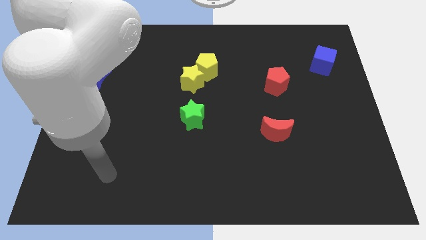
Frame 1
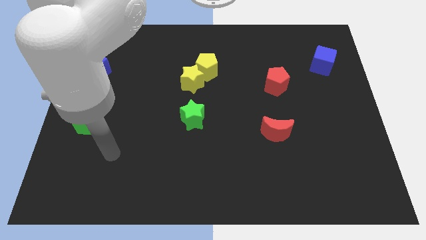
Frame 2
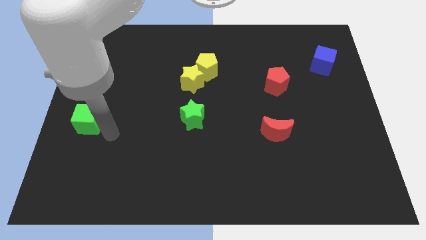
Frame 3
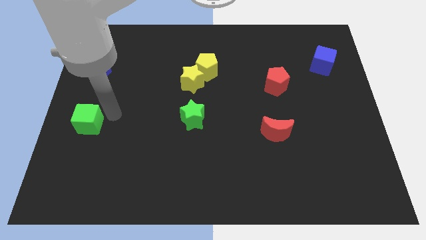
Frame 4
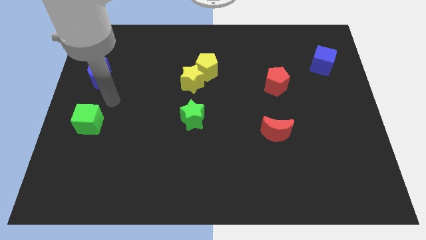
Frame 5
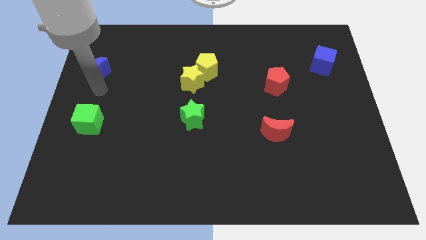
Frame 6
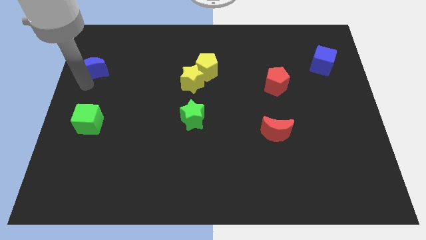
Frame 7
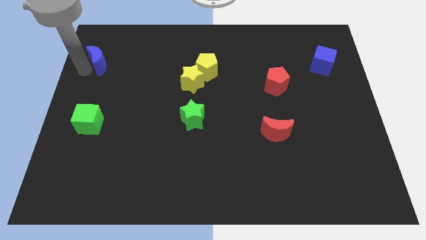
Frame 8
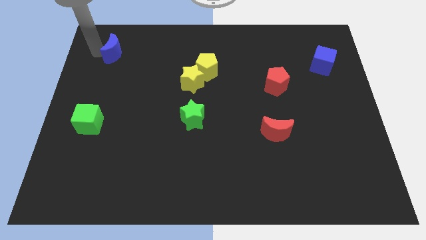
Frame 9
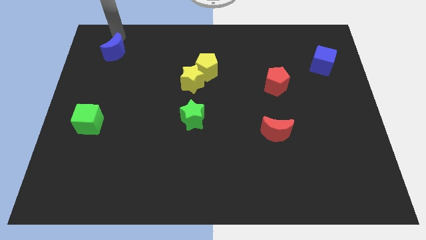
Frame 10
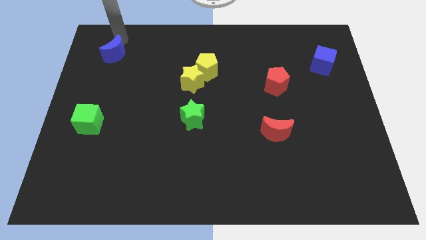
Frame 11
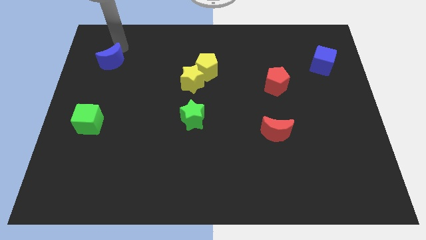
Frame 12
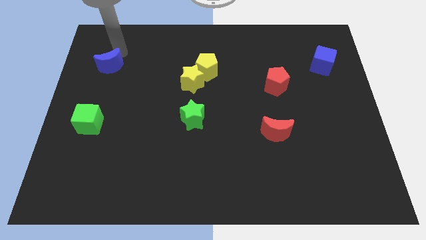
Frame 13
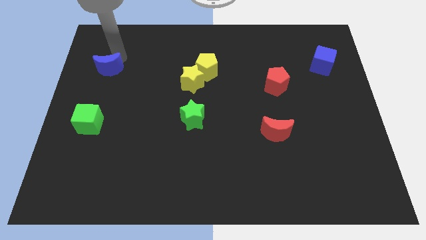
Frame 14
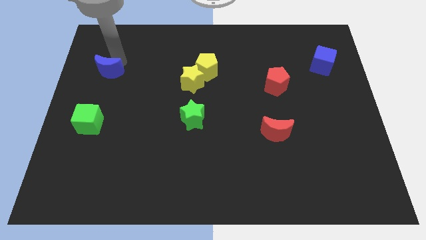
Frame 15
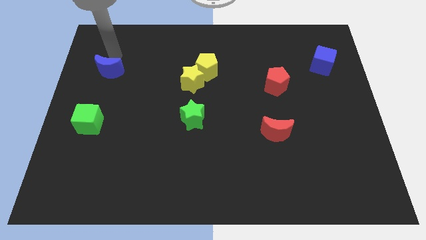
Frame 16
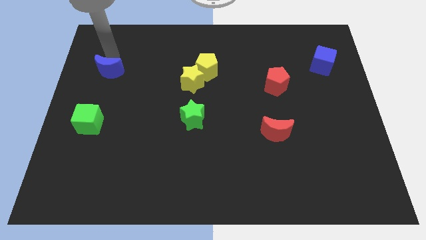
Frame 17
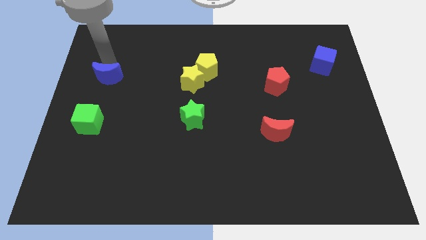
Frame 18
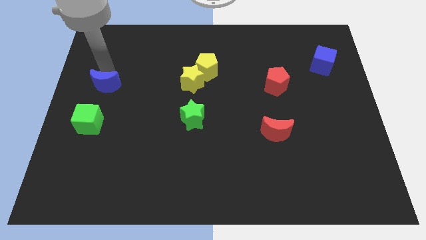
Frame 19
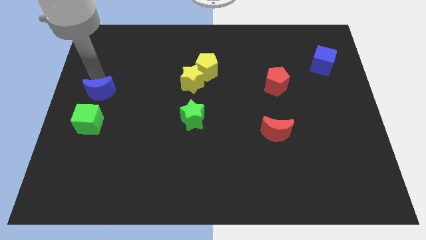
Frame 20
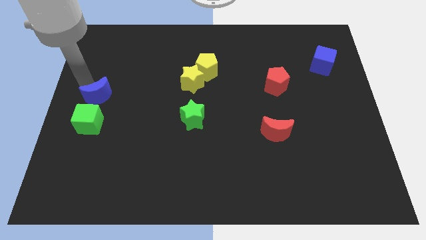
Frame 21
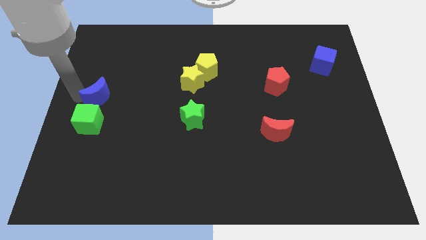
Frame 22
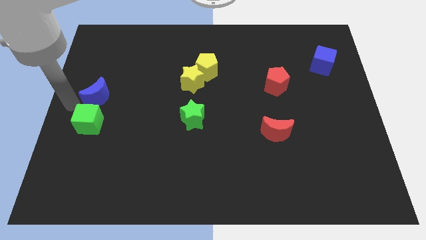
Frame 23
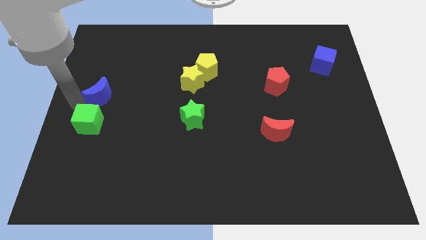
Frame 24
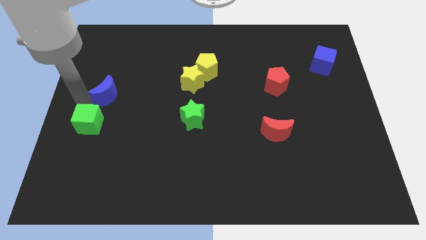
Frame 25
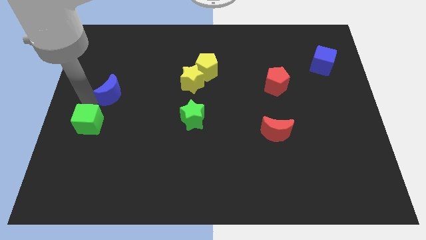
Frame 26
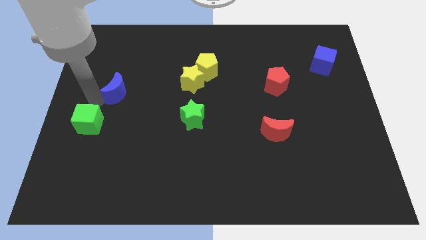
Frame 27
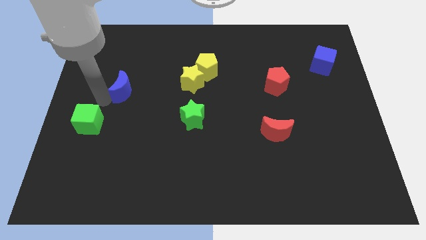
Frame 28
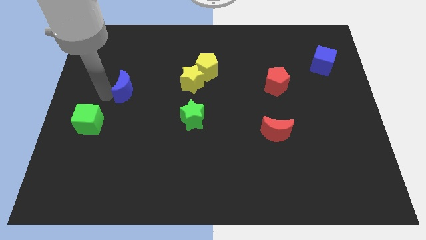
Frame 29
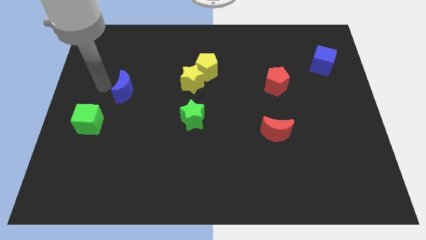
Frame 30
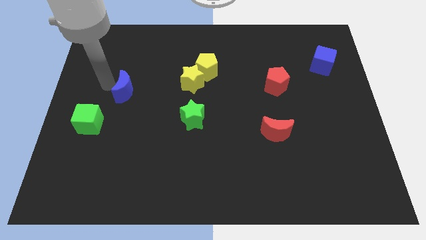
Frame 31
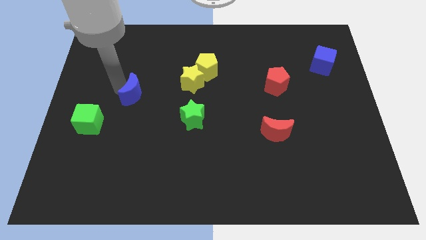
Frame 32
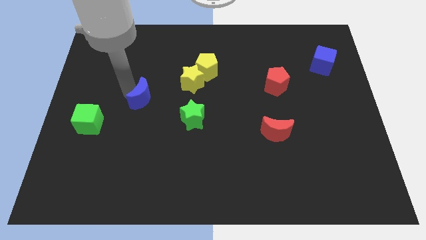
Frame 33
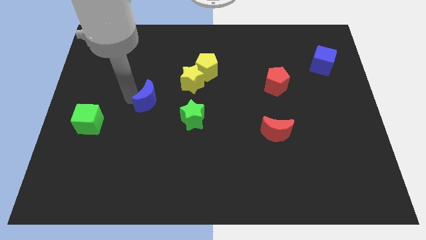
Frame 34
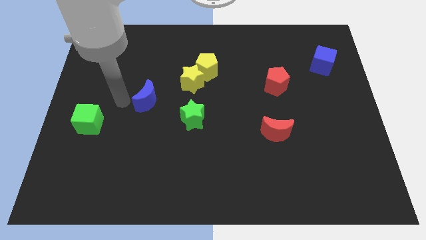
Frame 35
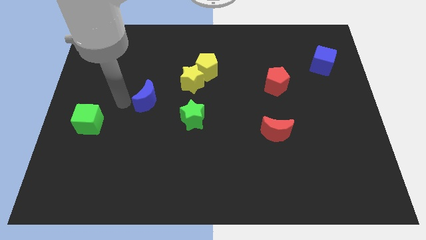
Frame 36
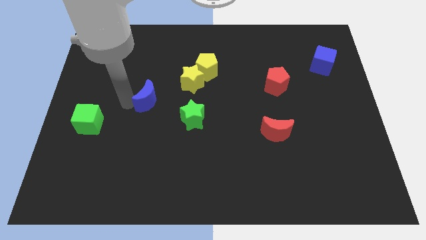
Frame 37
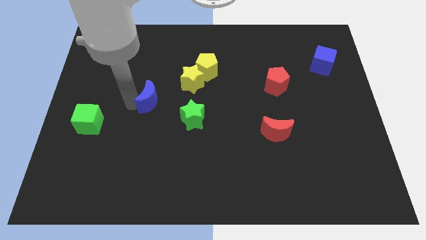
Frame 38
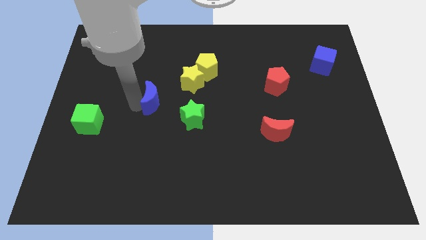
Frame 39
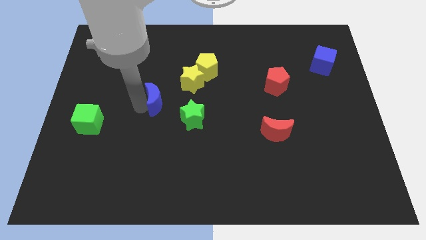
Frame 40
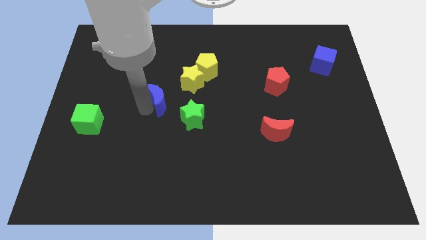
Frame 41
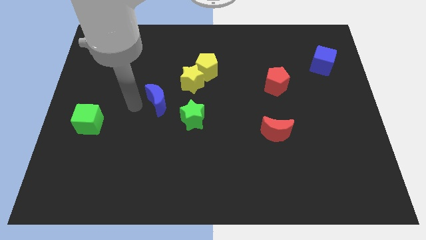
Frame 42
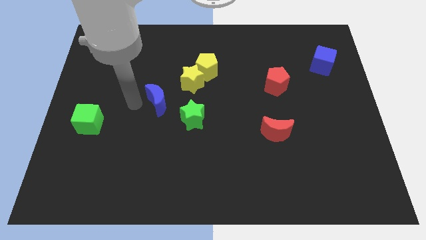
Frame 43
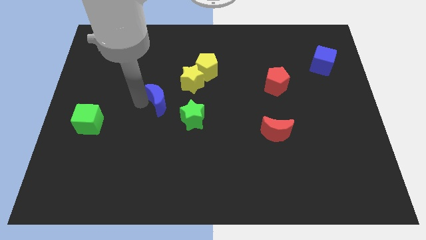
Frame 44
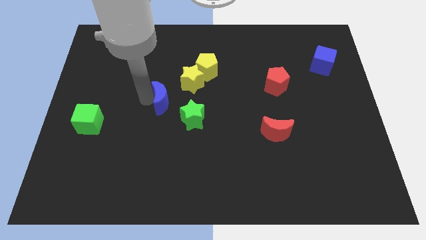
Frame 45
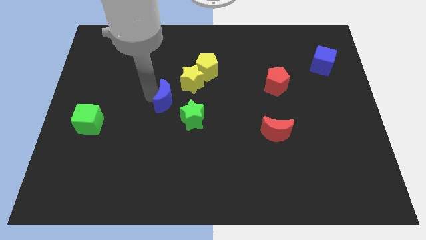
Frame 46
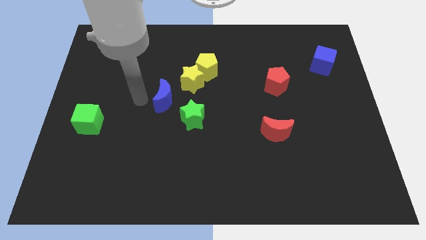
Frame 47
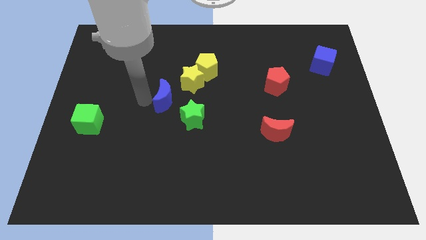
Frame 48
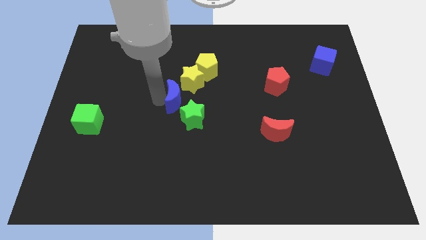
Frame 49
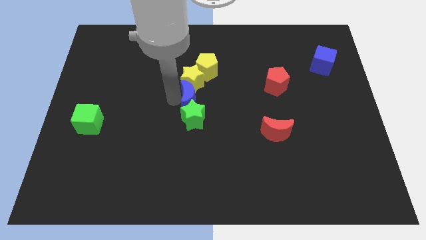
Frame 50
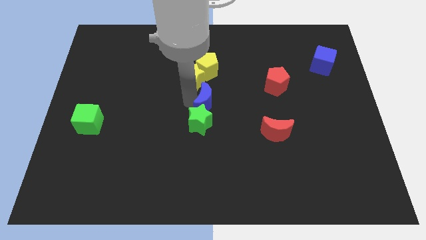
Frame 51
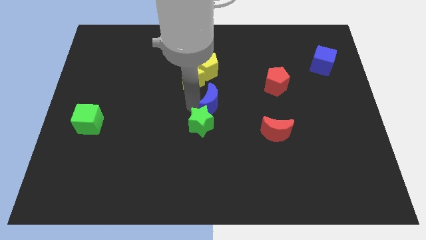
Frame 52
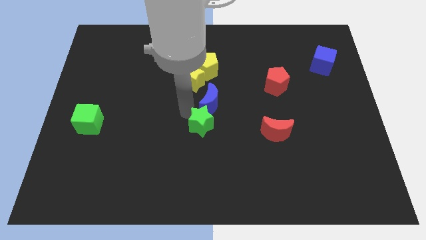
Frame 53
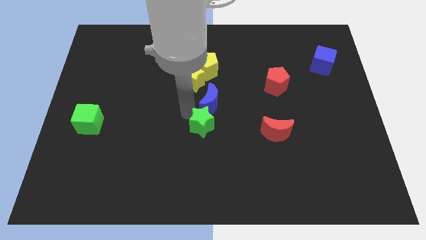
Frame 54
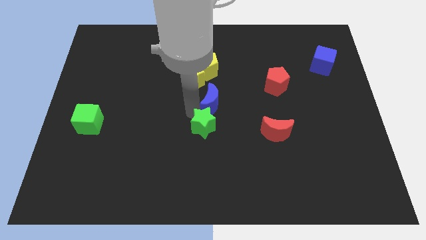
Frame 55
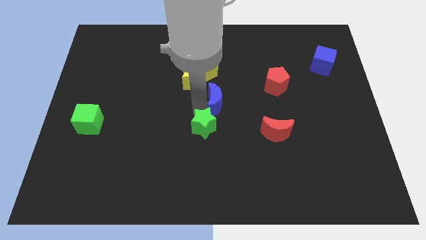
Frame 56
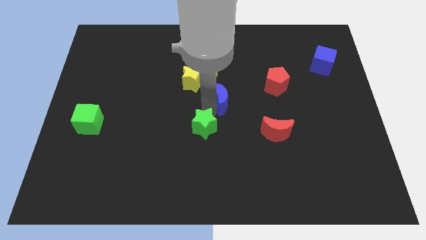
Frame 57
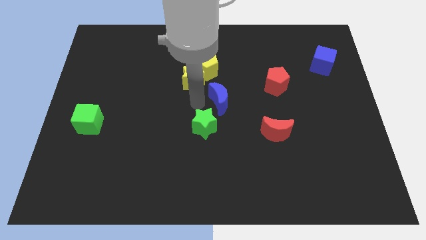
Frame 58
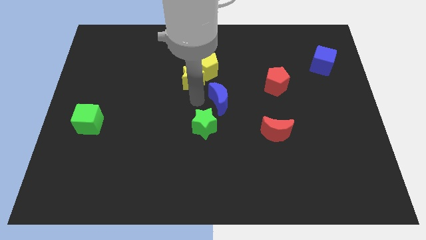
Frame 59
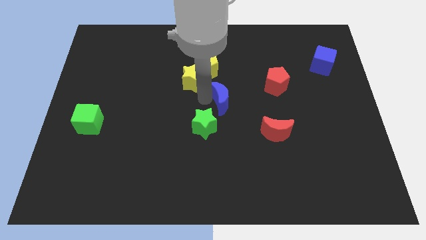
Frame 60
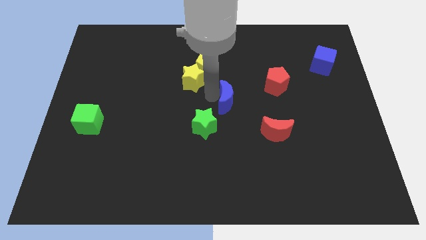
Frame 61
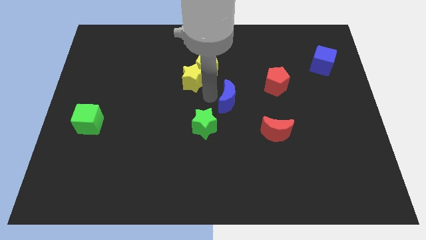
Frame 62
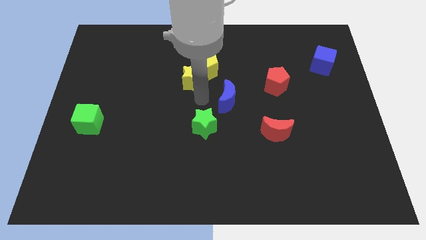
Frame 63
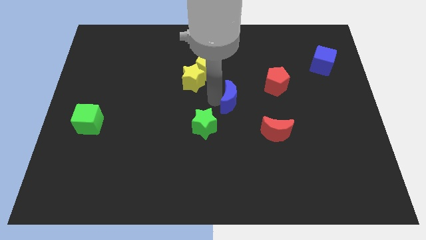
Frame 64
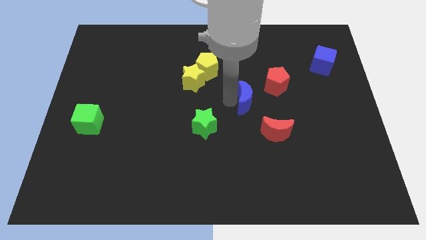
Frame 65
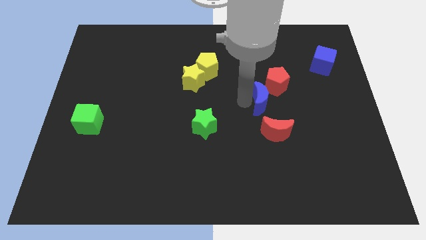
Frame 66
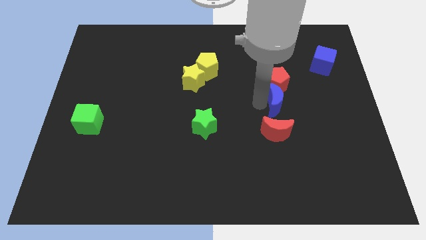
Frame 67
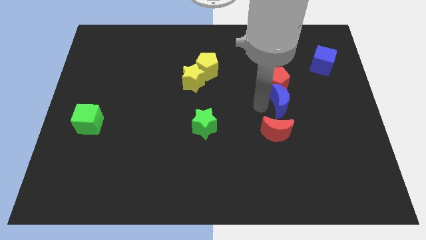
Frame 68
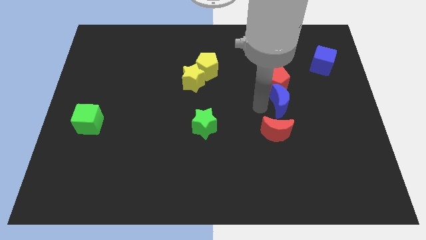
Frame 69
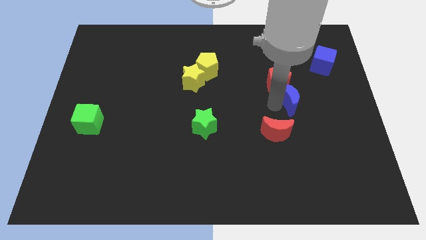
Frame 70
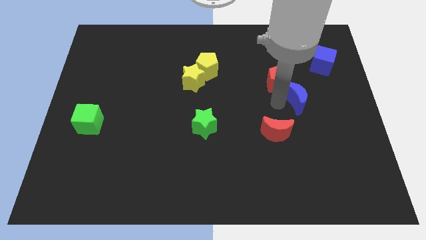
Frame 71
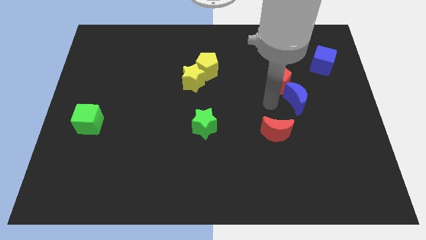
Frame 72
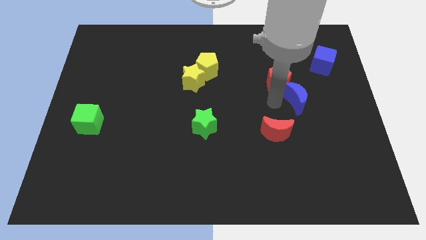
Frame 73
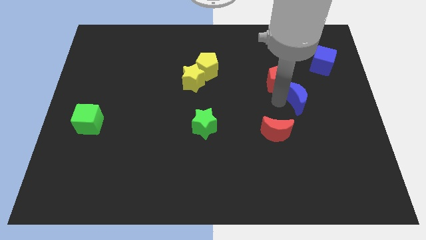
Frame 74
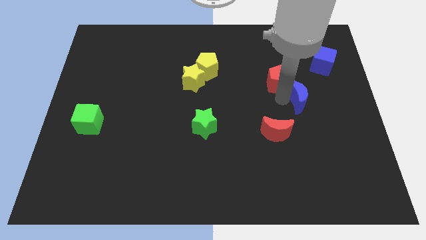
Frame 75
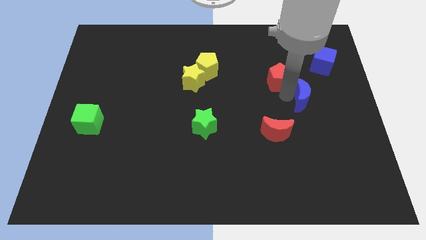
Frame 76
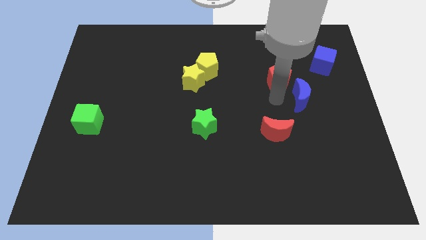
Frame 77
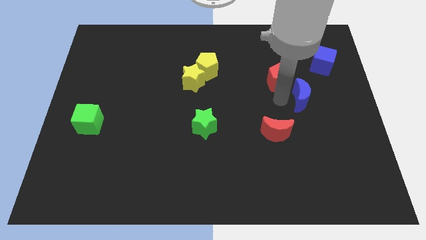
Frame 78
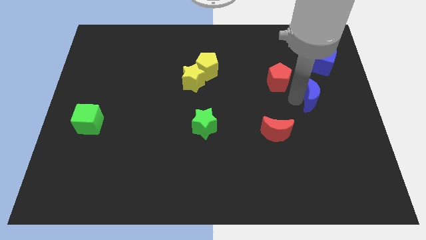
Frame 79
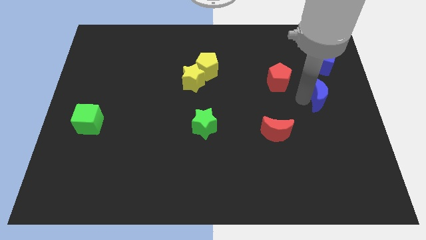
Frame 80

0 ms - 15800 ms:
move the blue moon to the center right
